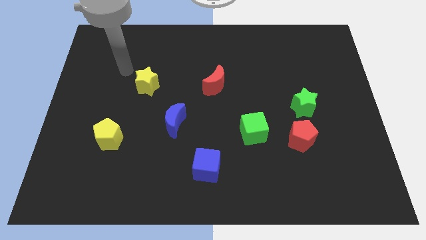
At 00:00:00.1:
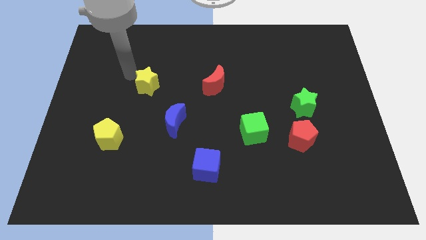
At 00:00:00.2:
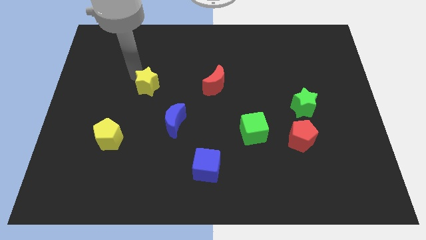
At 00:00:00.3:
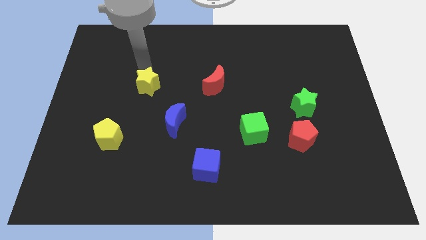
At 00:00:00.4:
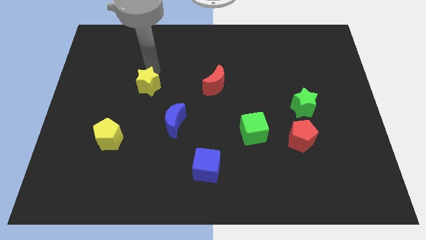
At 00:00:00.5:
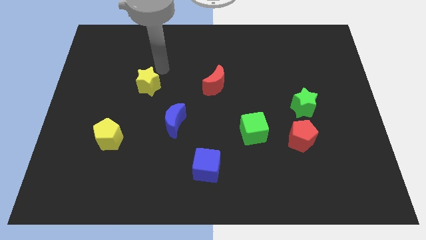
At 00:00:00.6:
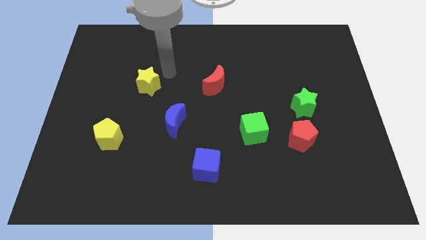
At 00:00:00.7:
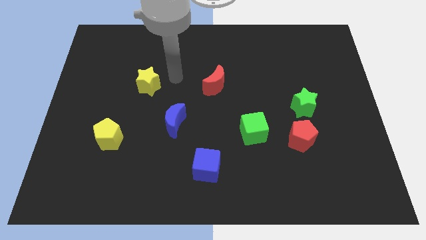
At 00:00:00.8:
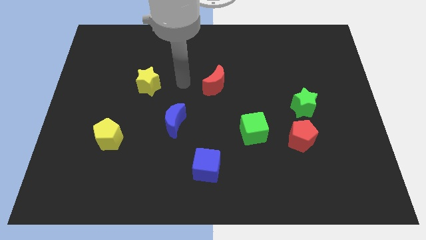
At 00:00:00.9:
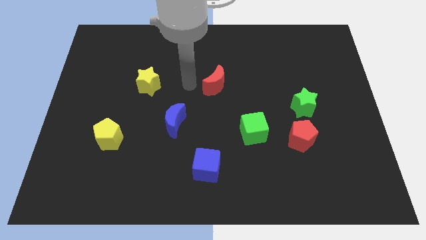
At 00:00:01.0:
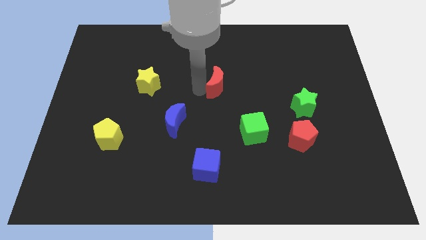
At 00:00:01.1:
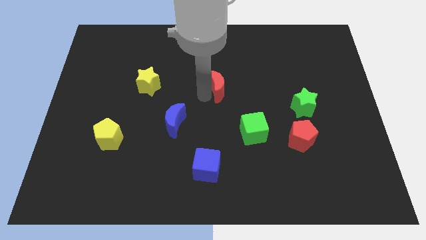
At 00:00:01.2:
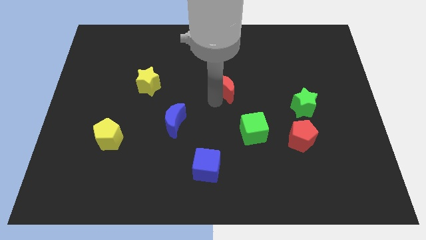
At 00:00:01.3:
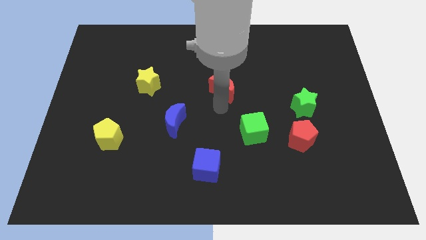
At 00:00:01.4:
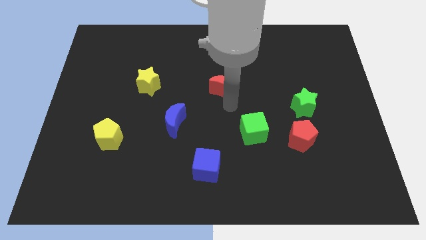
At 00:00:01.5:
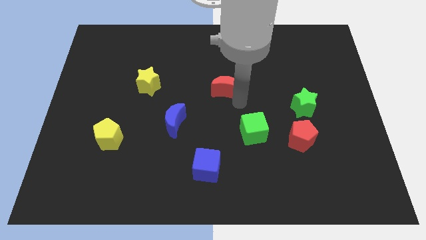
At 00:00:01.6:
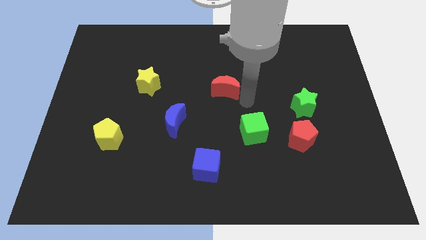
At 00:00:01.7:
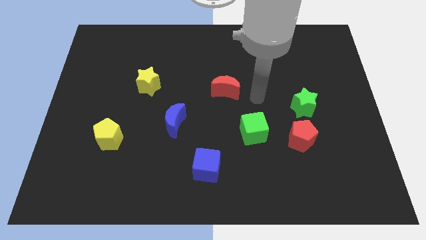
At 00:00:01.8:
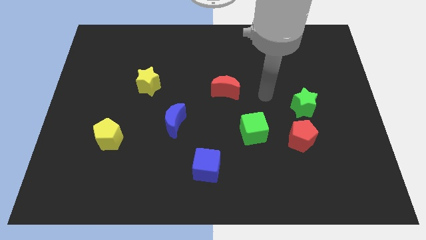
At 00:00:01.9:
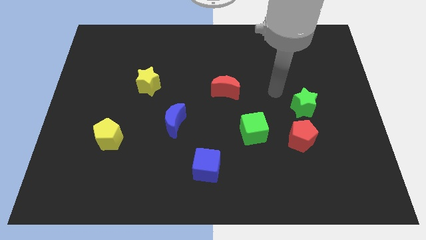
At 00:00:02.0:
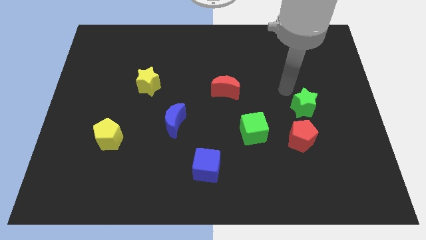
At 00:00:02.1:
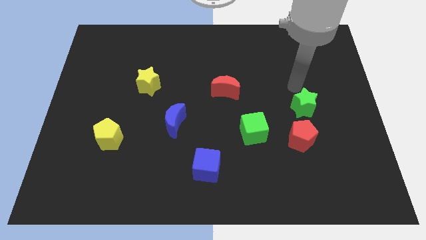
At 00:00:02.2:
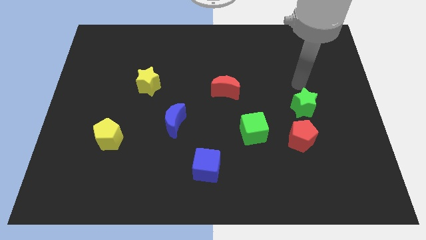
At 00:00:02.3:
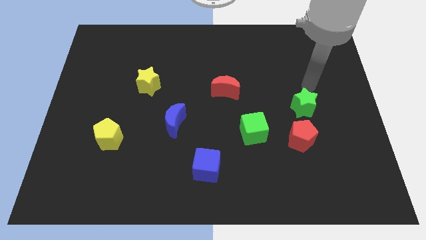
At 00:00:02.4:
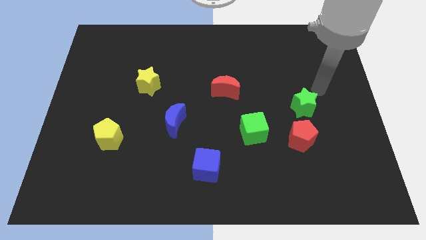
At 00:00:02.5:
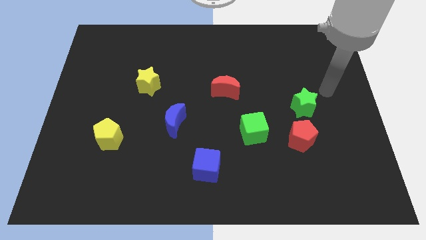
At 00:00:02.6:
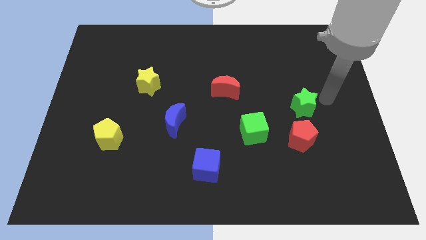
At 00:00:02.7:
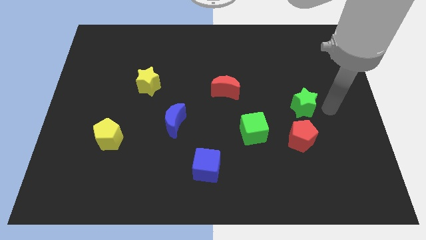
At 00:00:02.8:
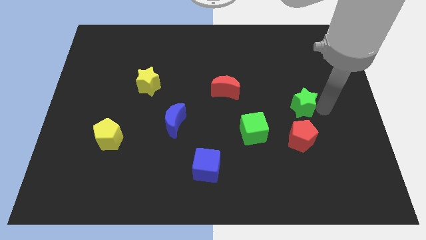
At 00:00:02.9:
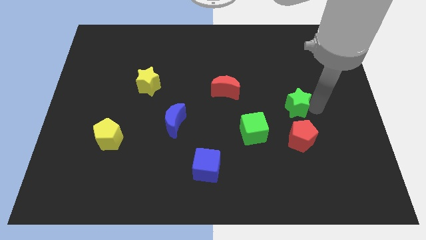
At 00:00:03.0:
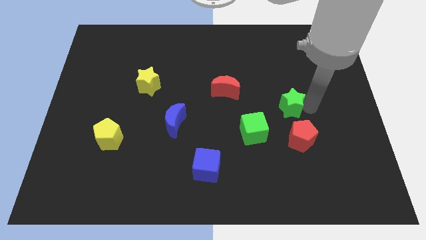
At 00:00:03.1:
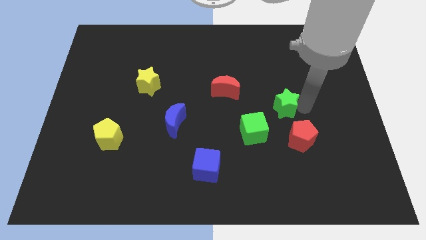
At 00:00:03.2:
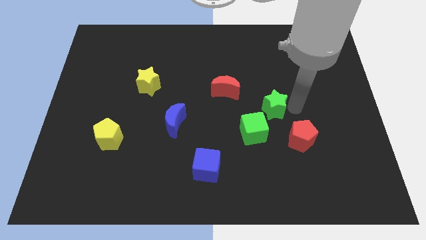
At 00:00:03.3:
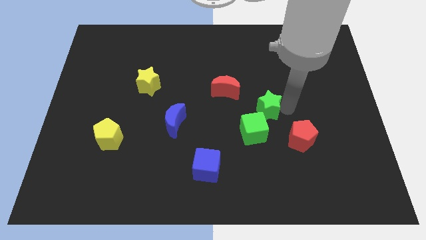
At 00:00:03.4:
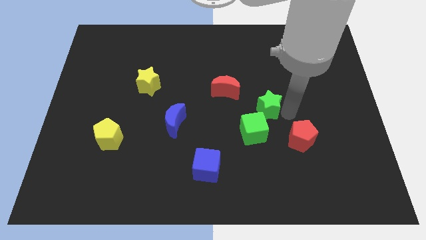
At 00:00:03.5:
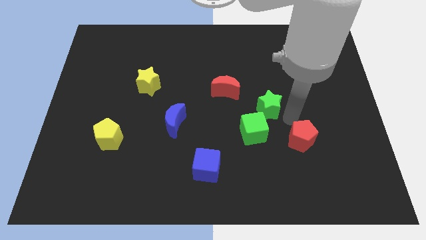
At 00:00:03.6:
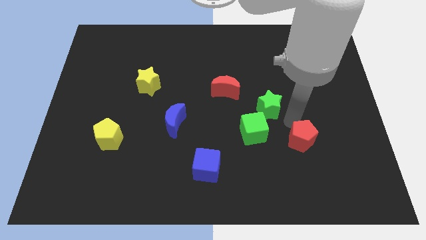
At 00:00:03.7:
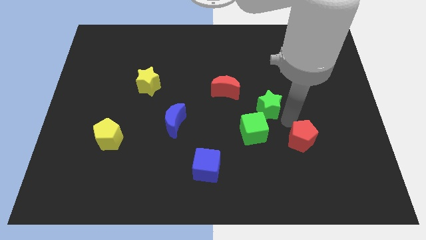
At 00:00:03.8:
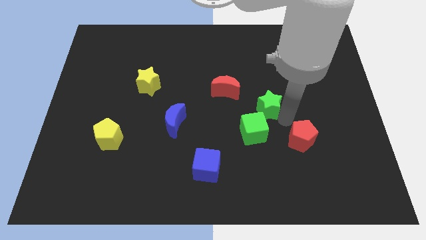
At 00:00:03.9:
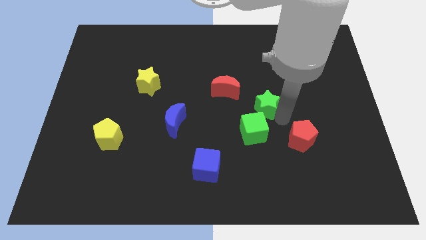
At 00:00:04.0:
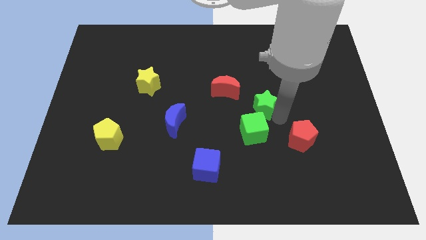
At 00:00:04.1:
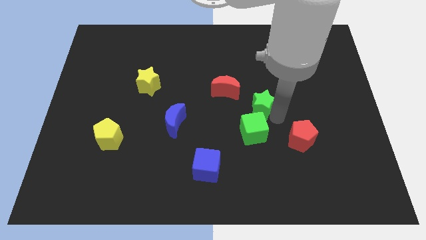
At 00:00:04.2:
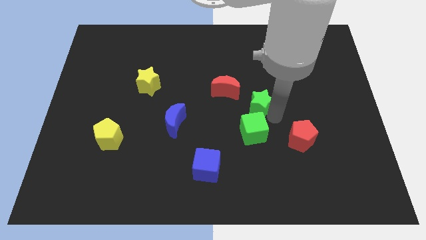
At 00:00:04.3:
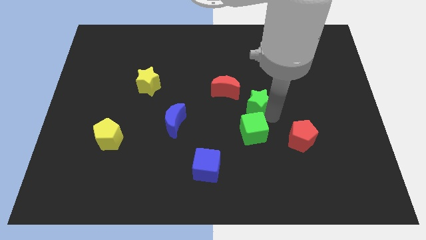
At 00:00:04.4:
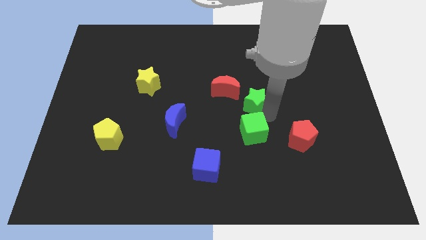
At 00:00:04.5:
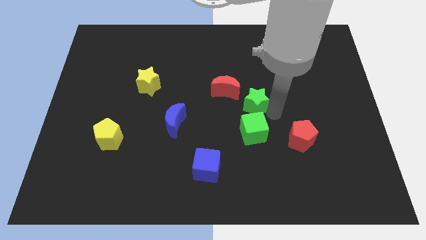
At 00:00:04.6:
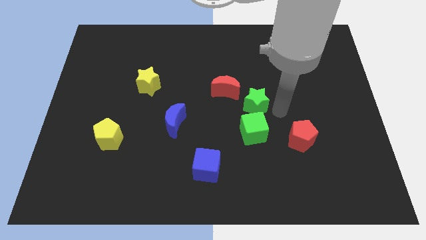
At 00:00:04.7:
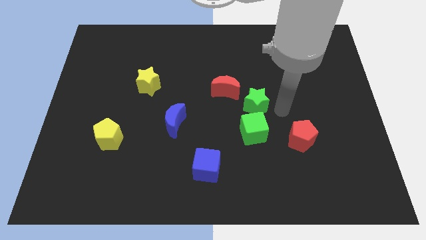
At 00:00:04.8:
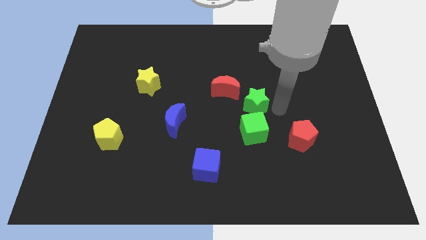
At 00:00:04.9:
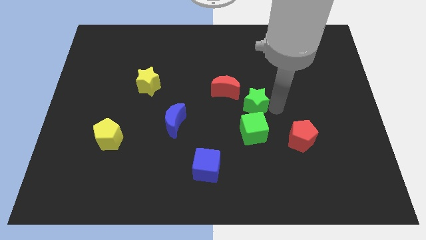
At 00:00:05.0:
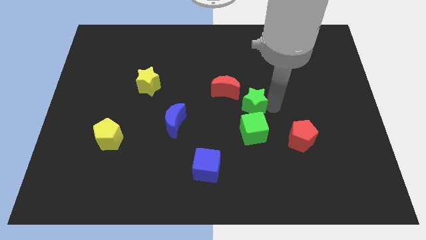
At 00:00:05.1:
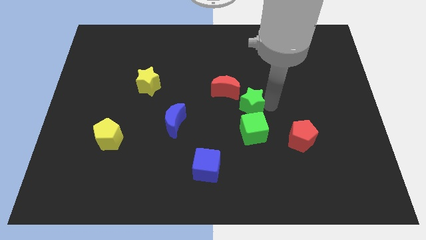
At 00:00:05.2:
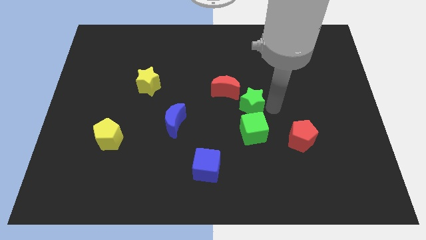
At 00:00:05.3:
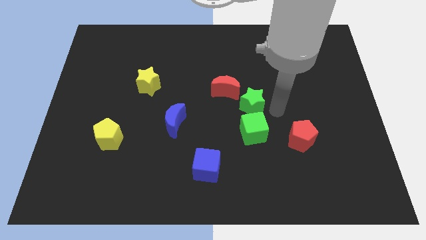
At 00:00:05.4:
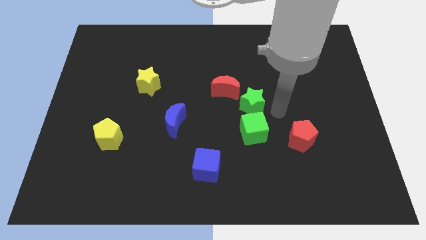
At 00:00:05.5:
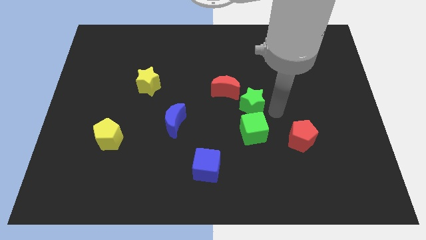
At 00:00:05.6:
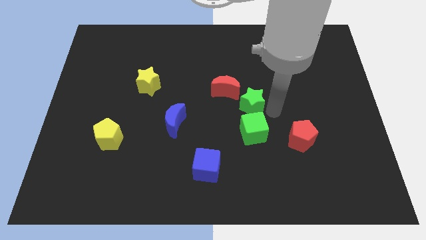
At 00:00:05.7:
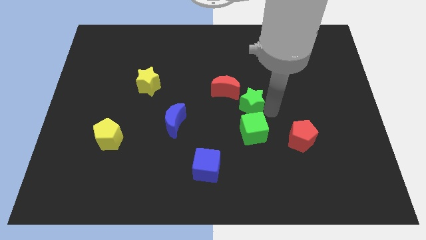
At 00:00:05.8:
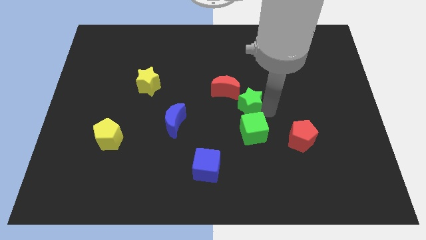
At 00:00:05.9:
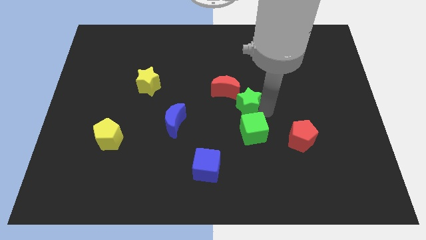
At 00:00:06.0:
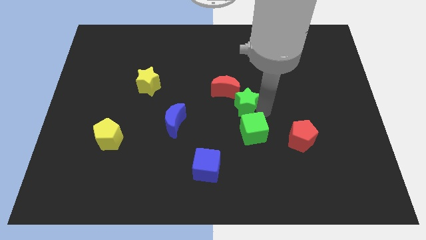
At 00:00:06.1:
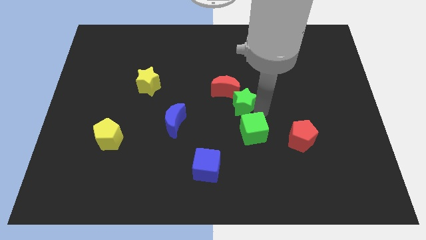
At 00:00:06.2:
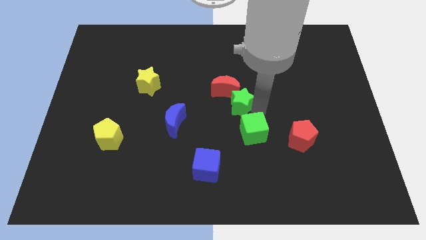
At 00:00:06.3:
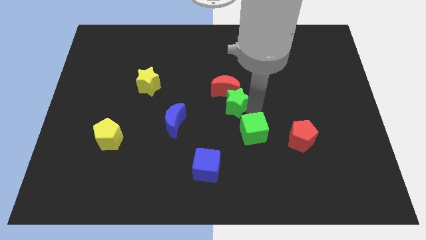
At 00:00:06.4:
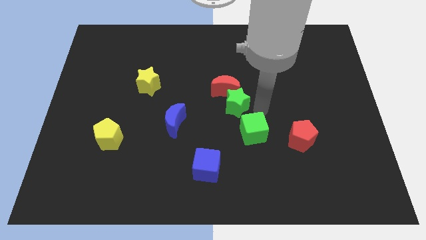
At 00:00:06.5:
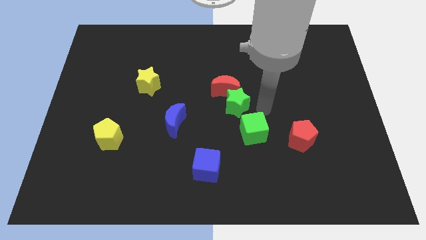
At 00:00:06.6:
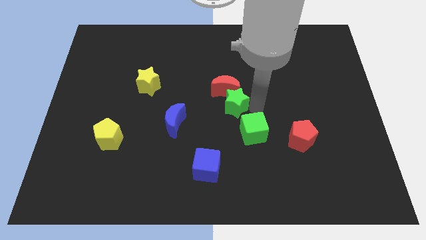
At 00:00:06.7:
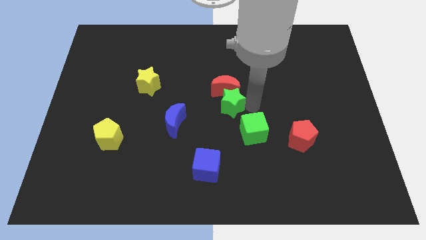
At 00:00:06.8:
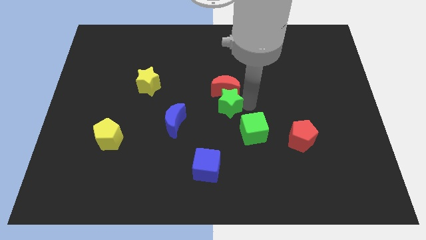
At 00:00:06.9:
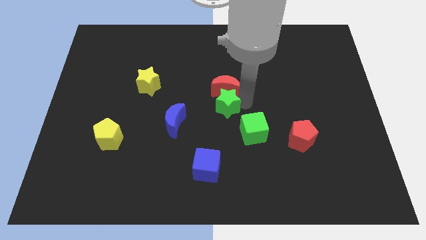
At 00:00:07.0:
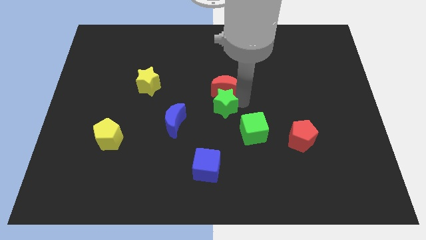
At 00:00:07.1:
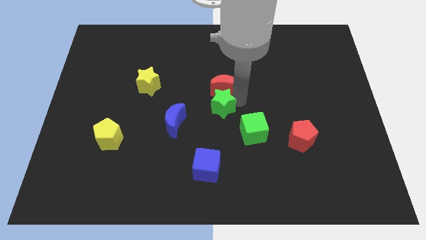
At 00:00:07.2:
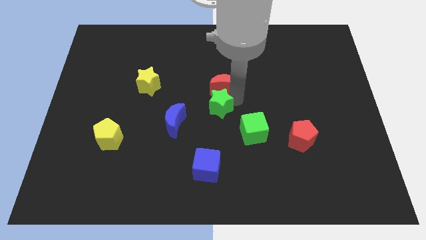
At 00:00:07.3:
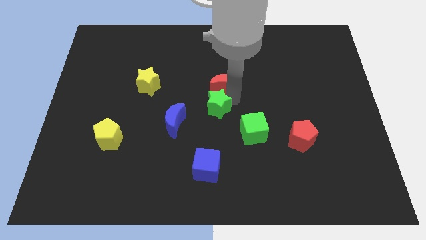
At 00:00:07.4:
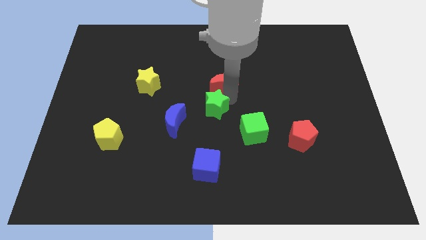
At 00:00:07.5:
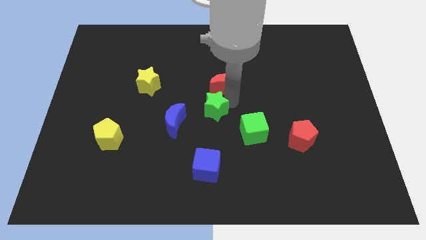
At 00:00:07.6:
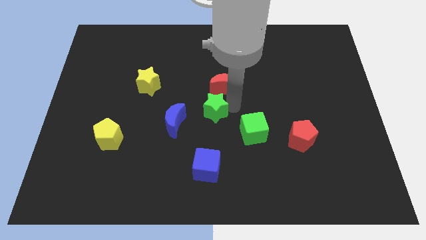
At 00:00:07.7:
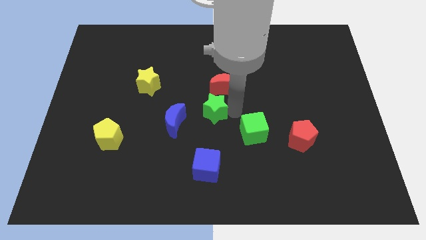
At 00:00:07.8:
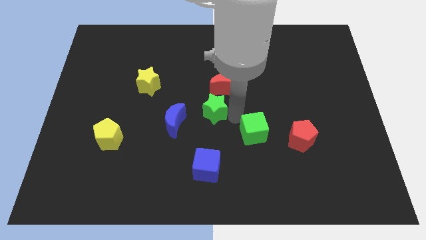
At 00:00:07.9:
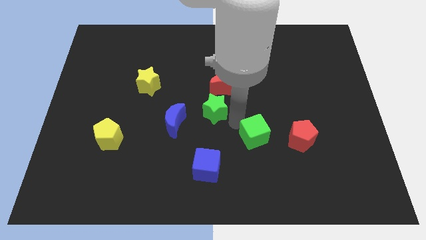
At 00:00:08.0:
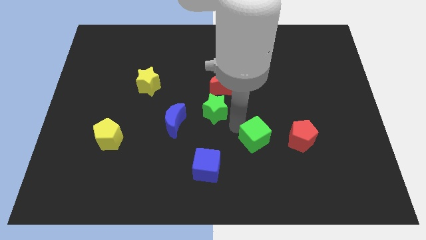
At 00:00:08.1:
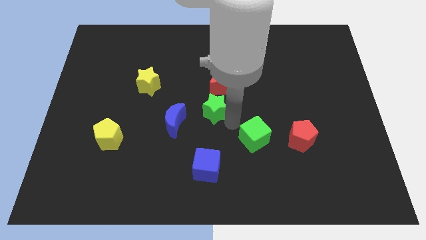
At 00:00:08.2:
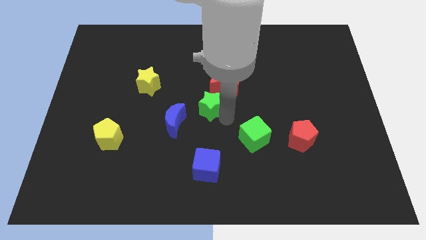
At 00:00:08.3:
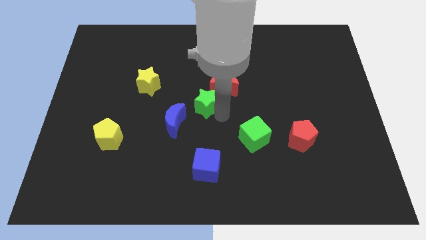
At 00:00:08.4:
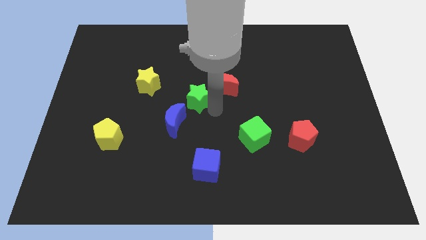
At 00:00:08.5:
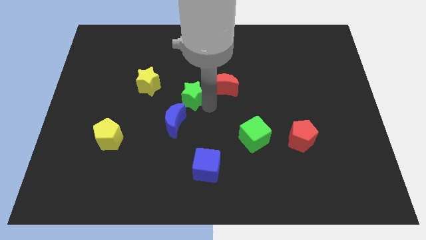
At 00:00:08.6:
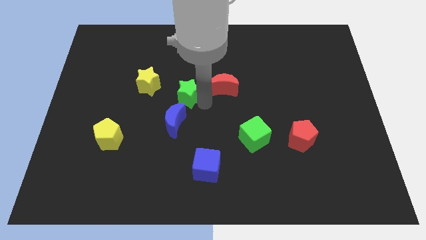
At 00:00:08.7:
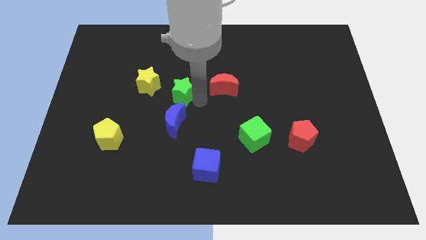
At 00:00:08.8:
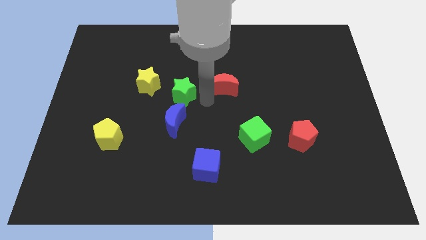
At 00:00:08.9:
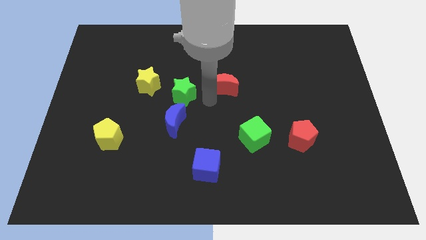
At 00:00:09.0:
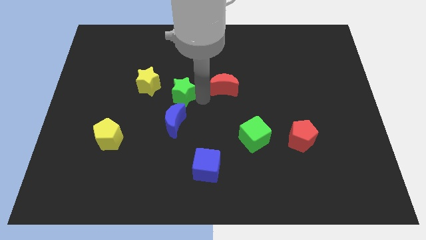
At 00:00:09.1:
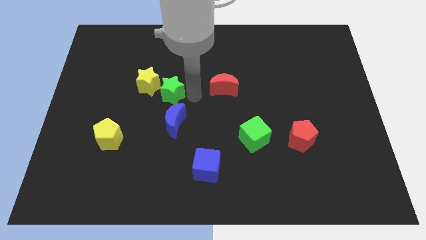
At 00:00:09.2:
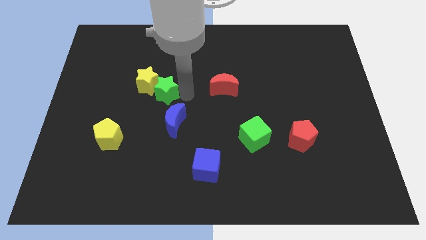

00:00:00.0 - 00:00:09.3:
move the green star next to the yellow star
